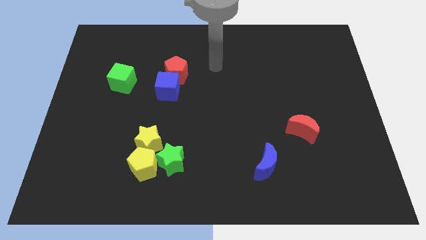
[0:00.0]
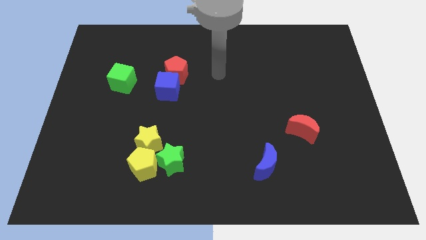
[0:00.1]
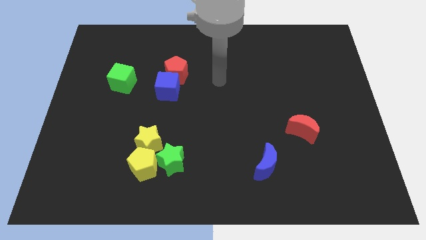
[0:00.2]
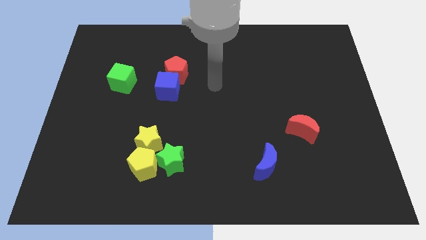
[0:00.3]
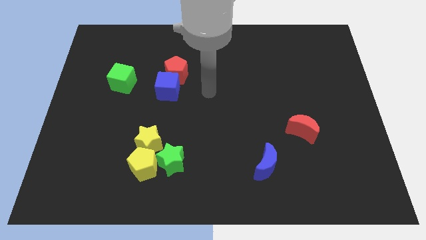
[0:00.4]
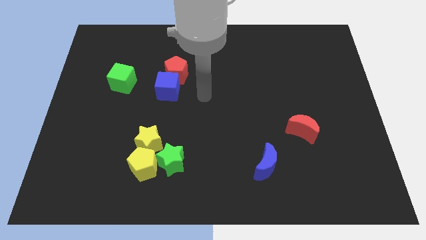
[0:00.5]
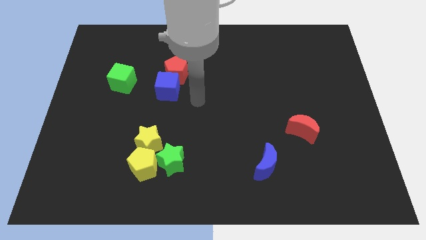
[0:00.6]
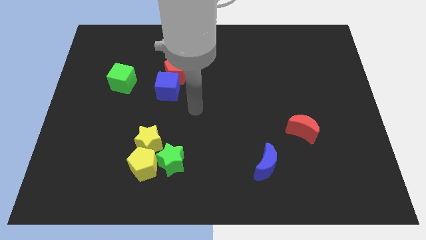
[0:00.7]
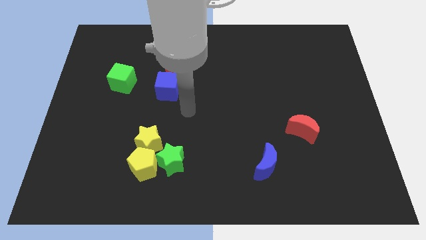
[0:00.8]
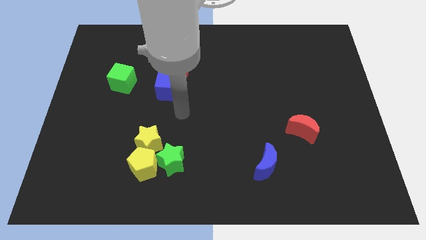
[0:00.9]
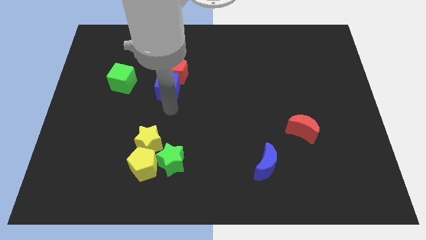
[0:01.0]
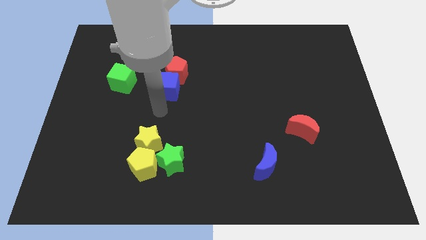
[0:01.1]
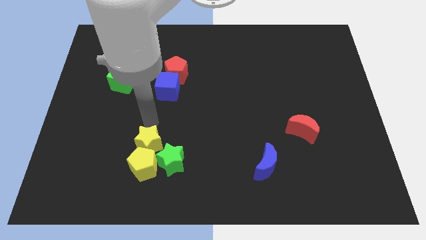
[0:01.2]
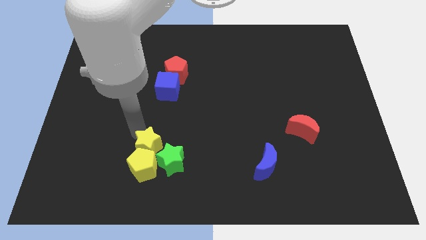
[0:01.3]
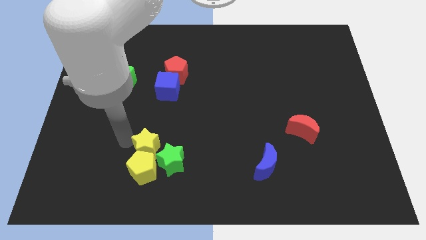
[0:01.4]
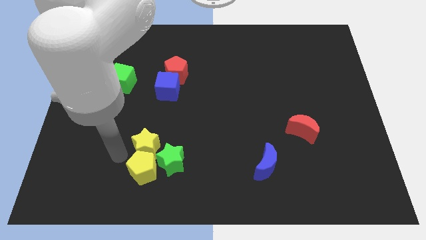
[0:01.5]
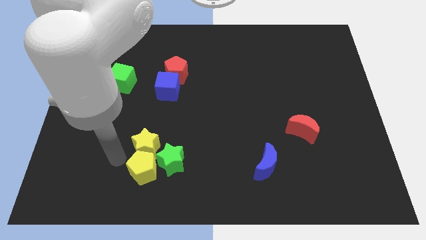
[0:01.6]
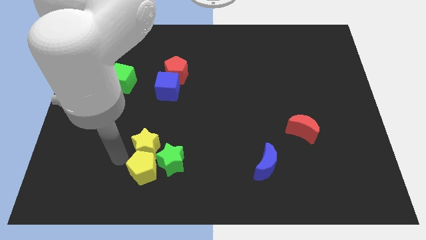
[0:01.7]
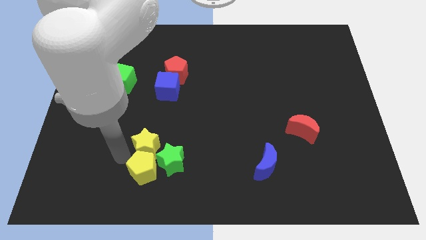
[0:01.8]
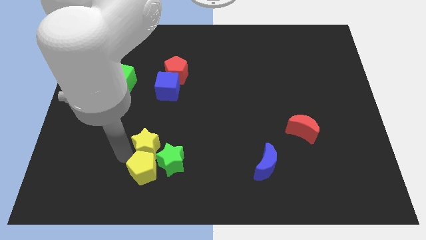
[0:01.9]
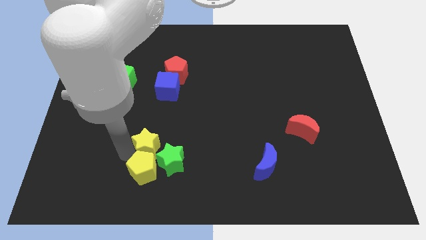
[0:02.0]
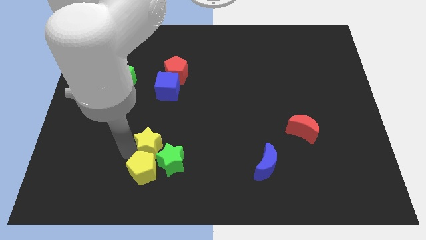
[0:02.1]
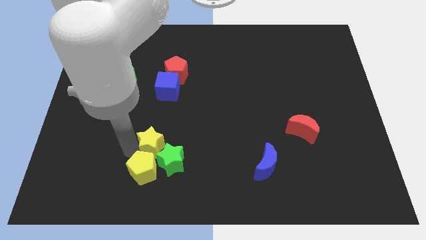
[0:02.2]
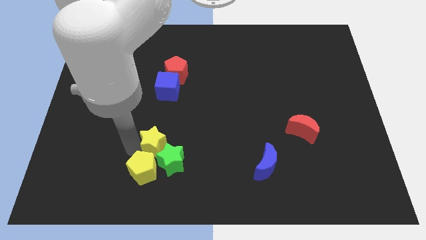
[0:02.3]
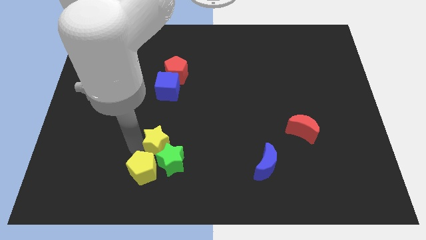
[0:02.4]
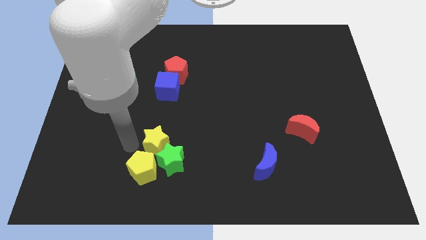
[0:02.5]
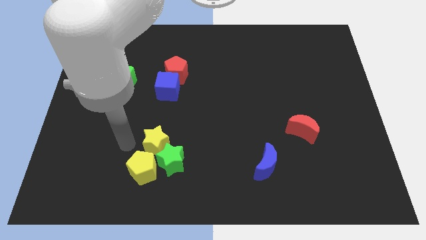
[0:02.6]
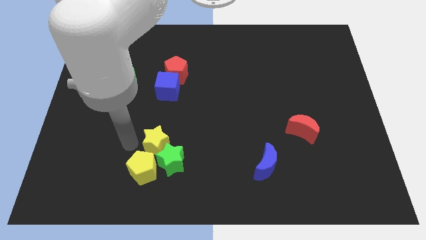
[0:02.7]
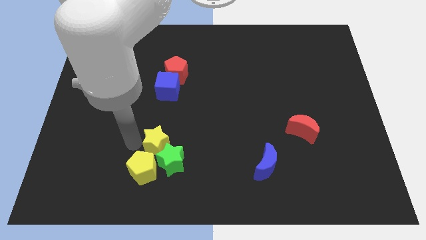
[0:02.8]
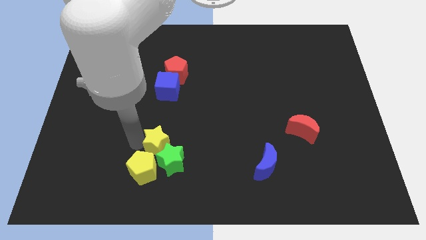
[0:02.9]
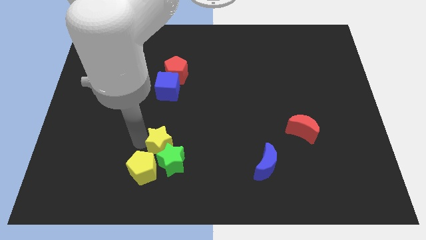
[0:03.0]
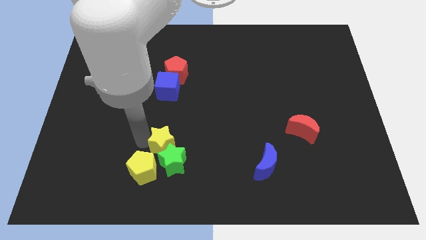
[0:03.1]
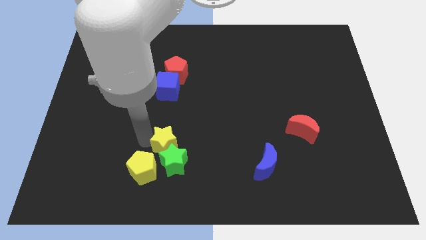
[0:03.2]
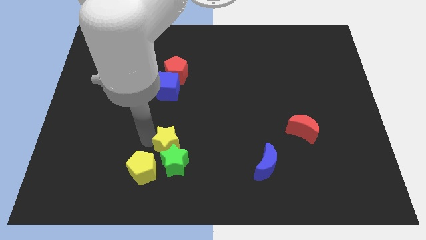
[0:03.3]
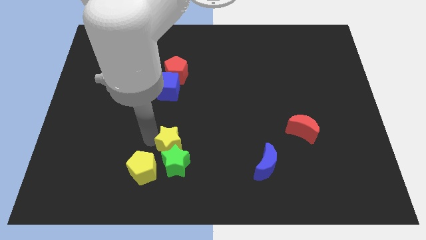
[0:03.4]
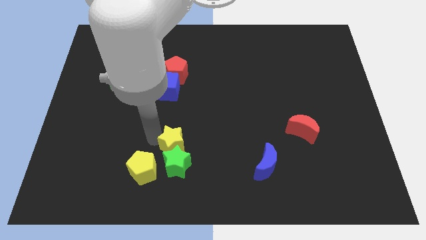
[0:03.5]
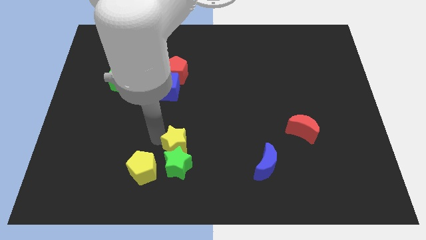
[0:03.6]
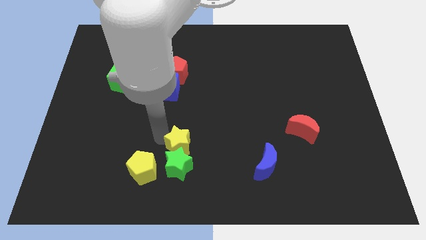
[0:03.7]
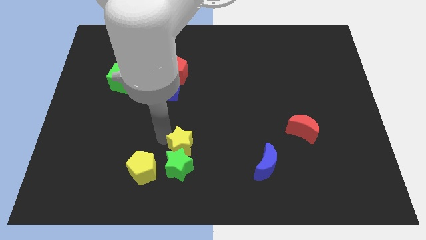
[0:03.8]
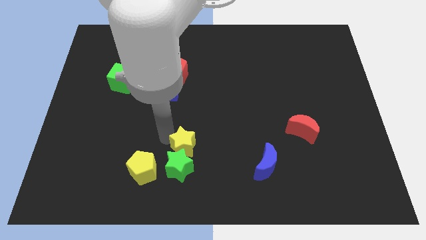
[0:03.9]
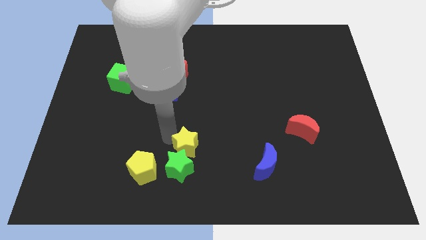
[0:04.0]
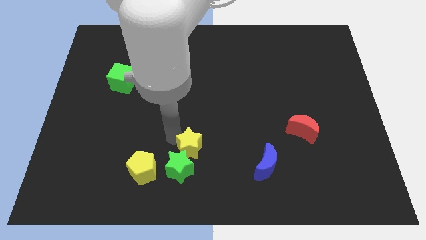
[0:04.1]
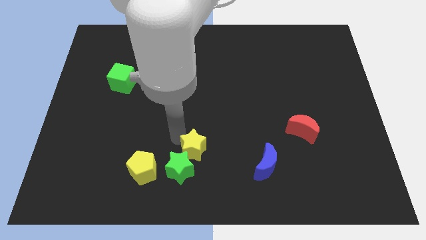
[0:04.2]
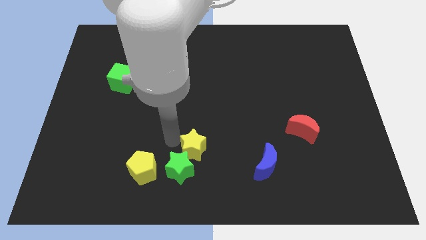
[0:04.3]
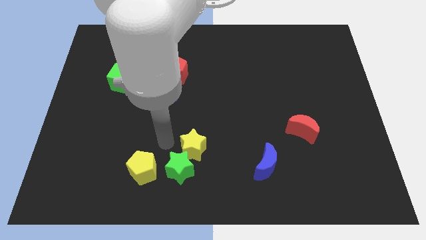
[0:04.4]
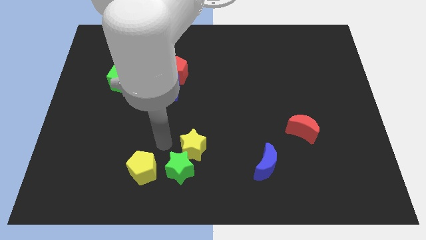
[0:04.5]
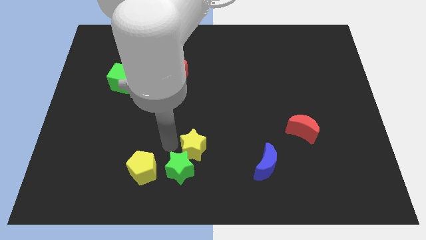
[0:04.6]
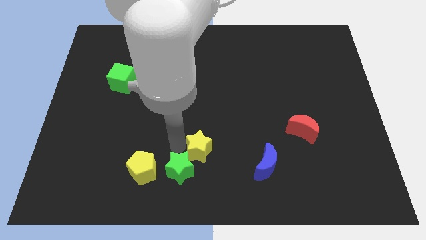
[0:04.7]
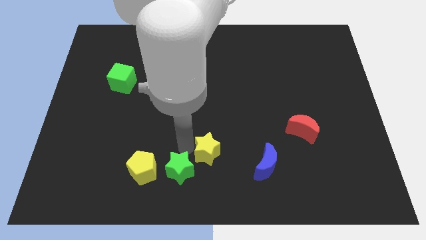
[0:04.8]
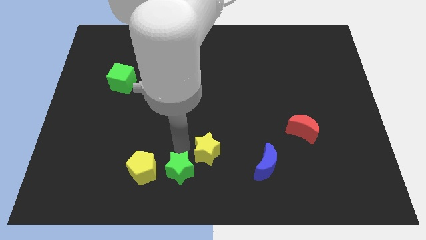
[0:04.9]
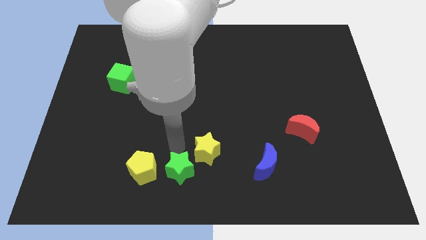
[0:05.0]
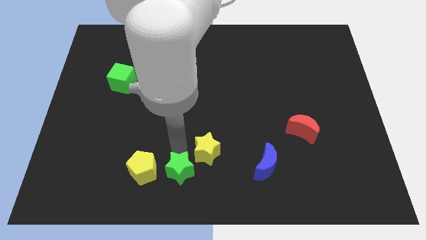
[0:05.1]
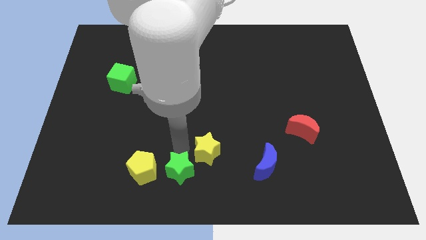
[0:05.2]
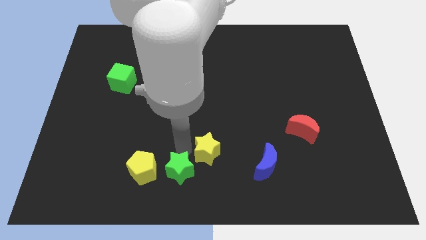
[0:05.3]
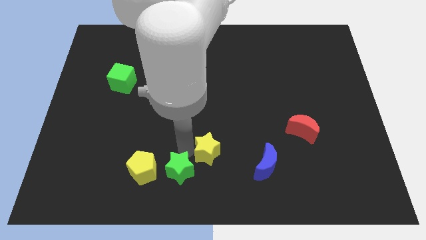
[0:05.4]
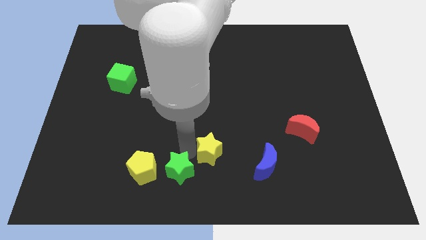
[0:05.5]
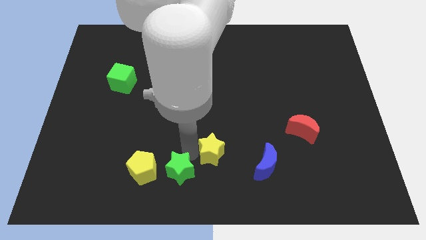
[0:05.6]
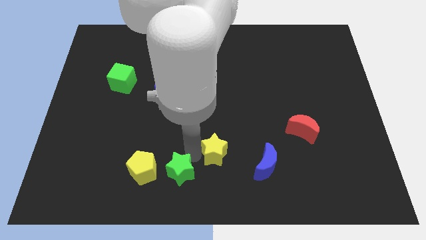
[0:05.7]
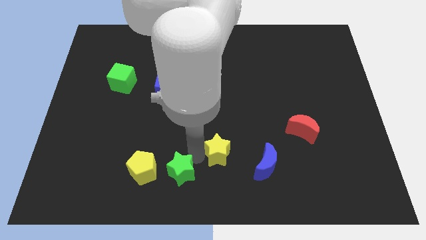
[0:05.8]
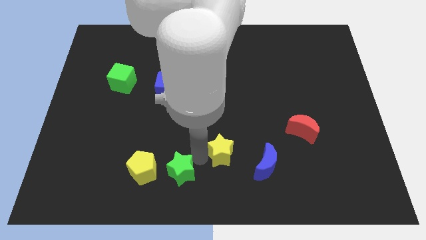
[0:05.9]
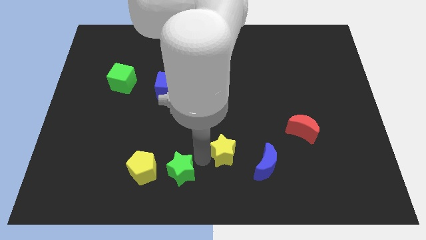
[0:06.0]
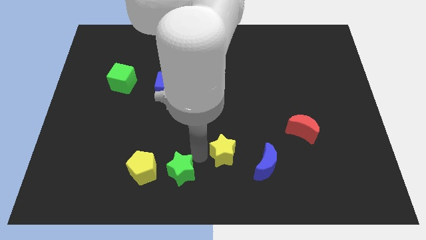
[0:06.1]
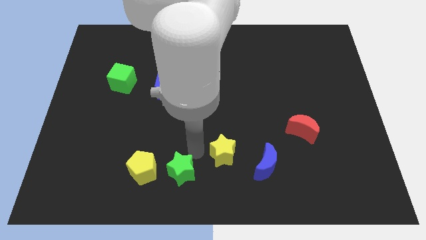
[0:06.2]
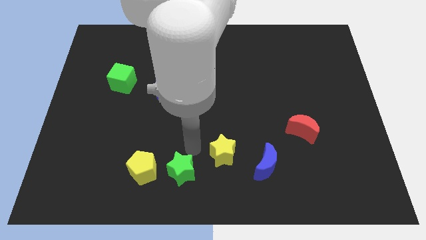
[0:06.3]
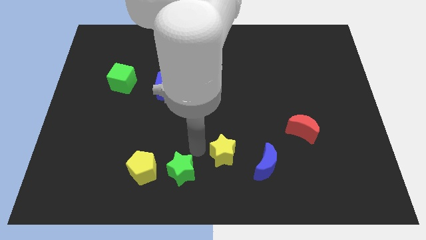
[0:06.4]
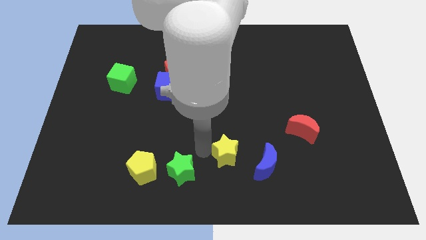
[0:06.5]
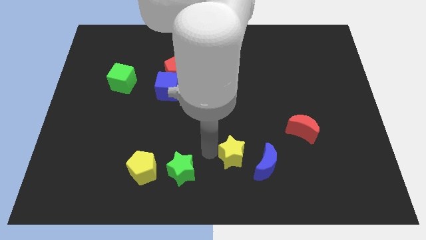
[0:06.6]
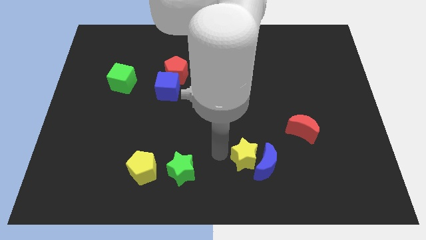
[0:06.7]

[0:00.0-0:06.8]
put the yellow star close to the blue moon

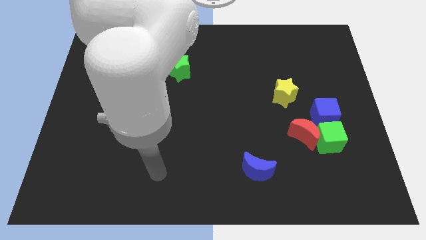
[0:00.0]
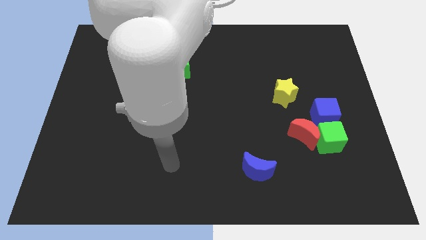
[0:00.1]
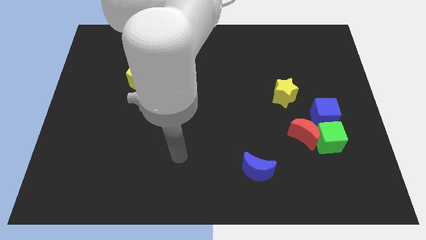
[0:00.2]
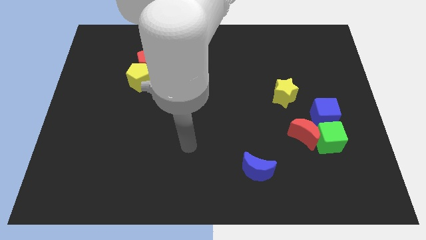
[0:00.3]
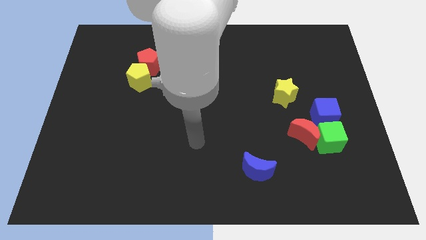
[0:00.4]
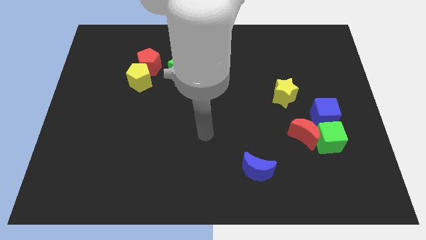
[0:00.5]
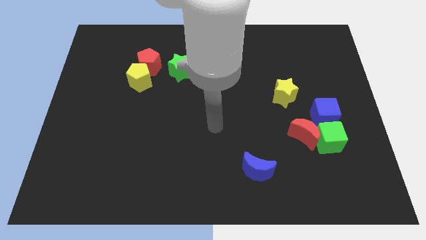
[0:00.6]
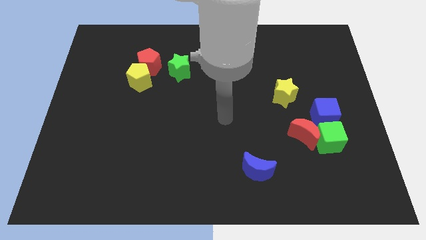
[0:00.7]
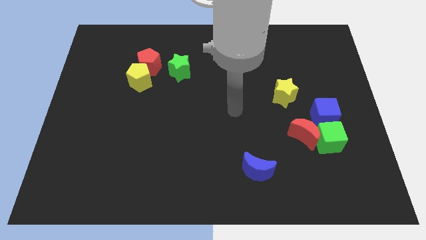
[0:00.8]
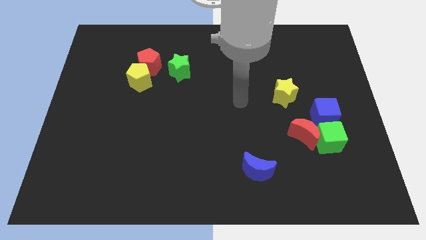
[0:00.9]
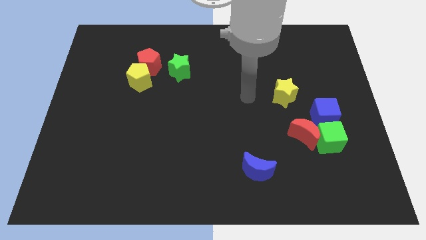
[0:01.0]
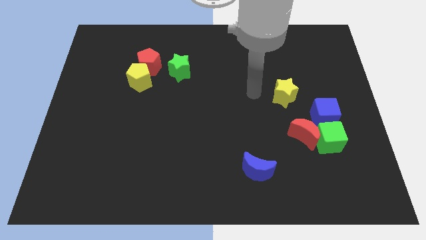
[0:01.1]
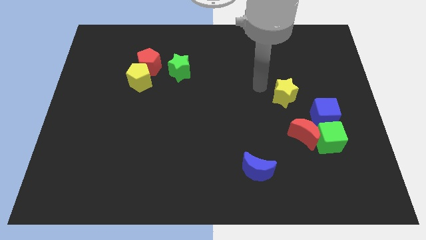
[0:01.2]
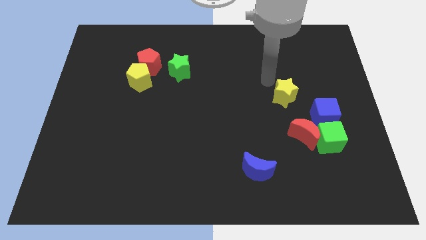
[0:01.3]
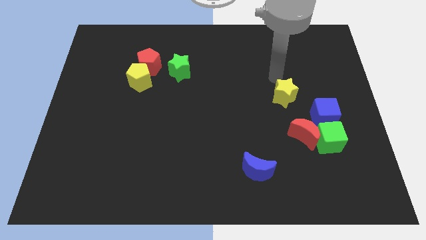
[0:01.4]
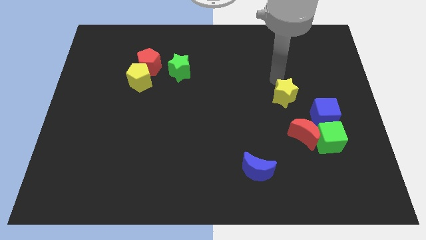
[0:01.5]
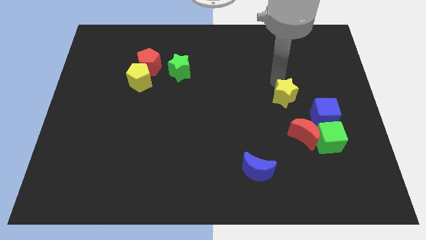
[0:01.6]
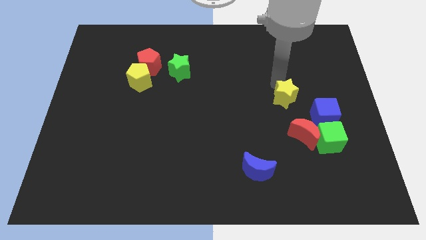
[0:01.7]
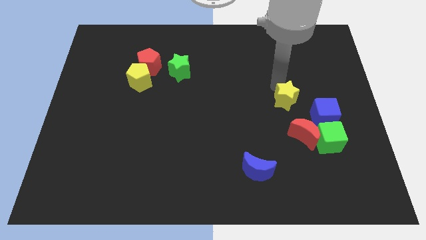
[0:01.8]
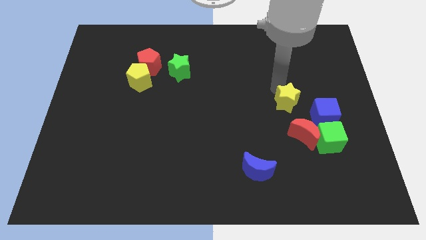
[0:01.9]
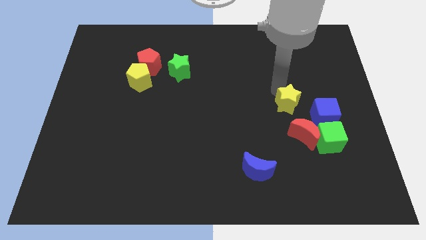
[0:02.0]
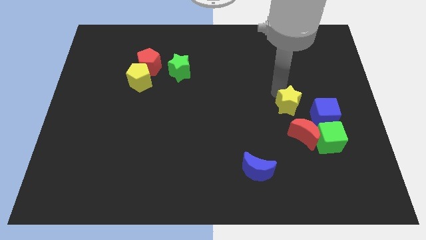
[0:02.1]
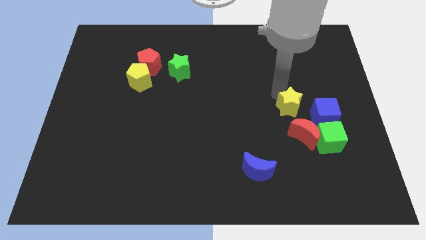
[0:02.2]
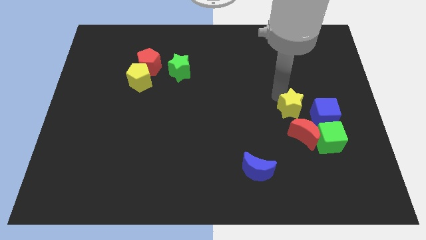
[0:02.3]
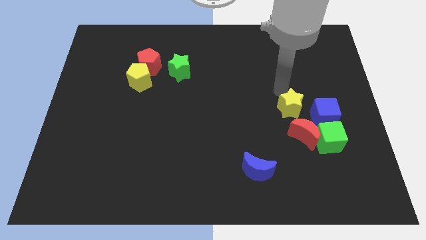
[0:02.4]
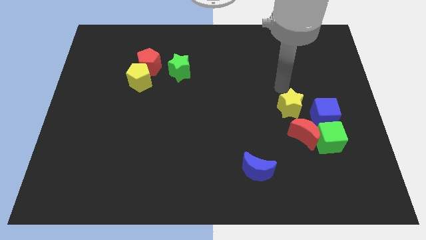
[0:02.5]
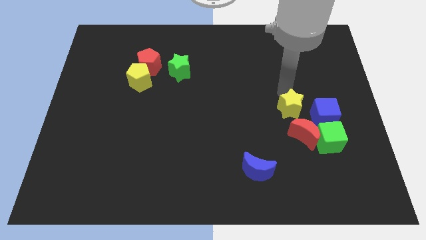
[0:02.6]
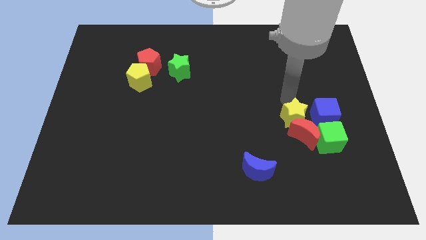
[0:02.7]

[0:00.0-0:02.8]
put the yellow star towards the red moon
